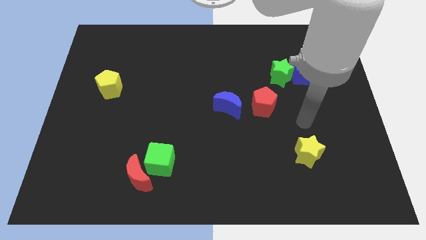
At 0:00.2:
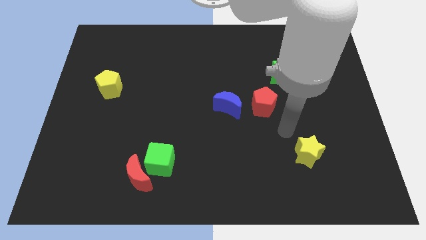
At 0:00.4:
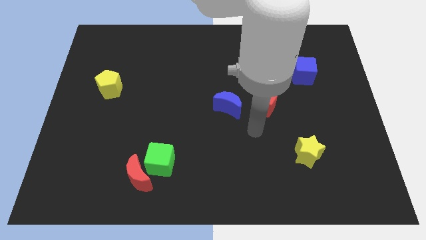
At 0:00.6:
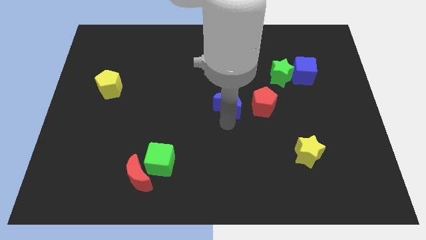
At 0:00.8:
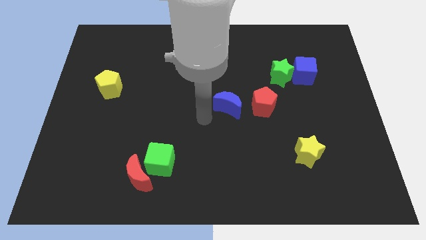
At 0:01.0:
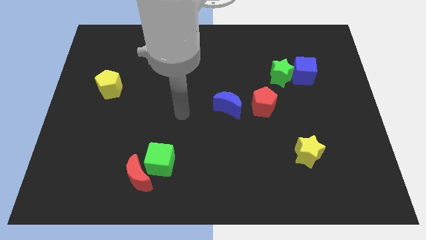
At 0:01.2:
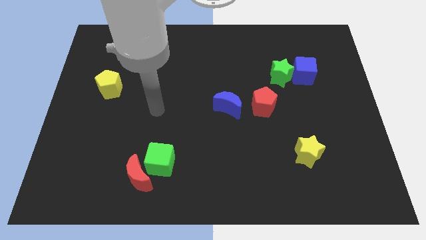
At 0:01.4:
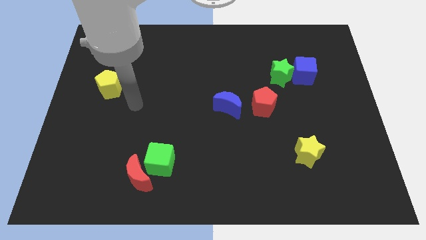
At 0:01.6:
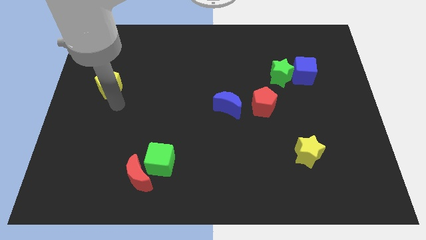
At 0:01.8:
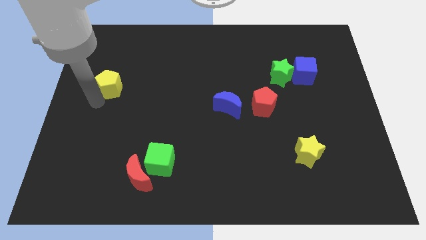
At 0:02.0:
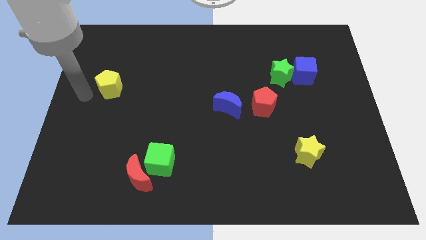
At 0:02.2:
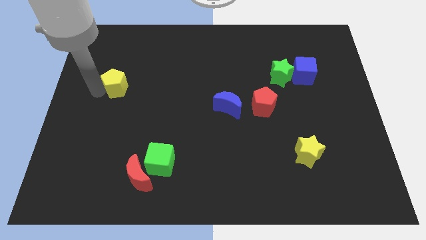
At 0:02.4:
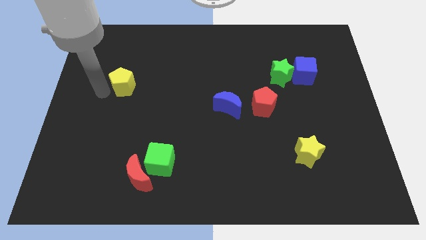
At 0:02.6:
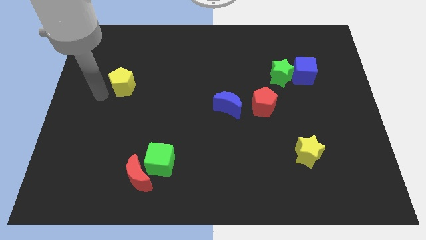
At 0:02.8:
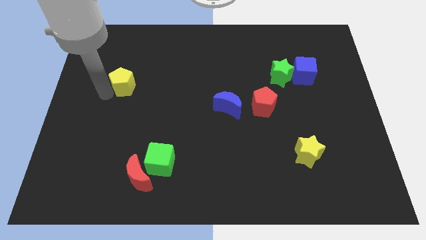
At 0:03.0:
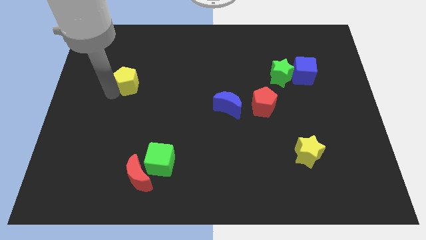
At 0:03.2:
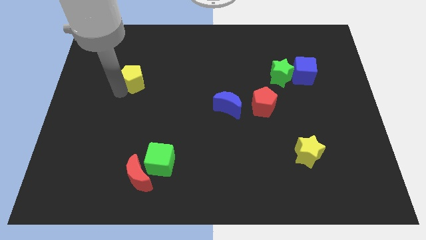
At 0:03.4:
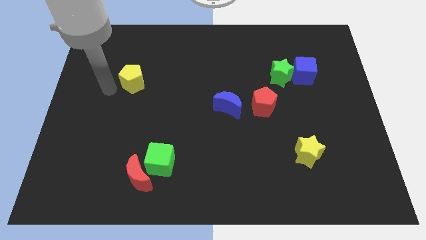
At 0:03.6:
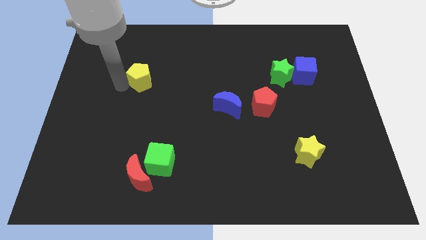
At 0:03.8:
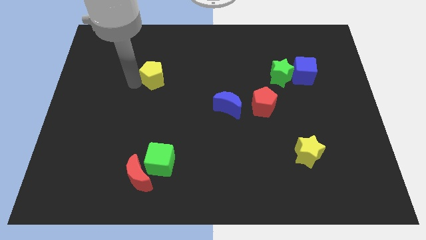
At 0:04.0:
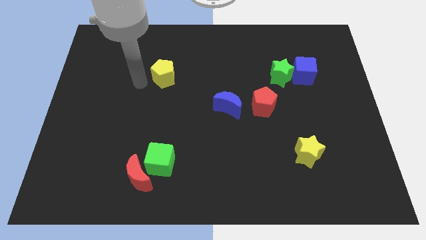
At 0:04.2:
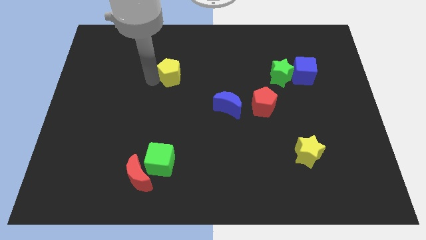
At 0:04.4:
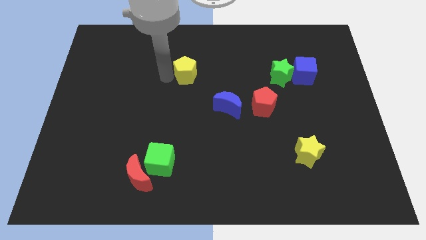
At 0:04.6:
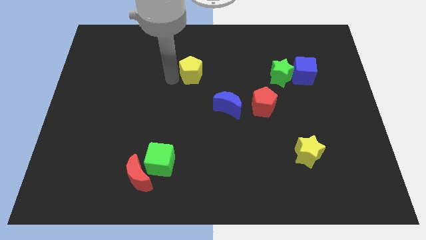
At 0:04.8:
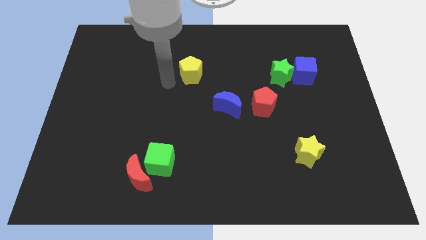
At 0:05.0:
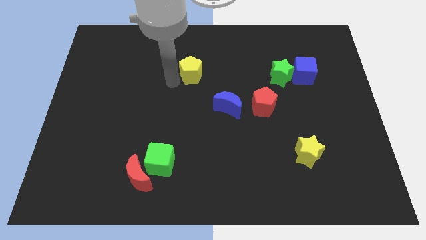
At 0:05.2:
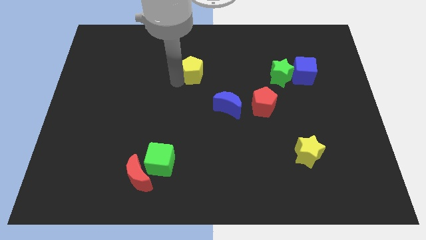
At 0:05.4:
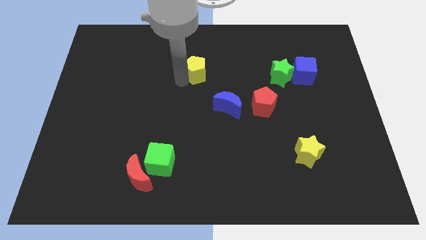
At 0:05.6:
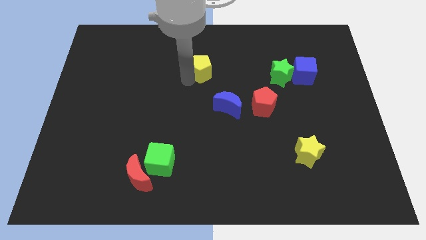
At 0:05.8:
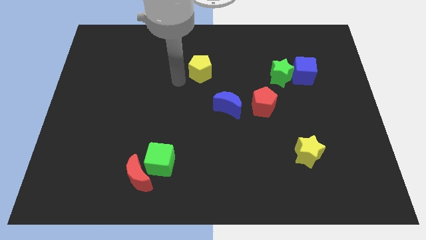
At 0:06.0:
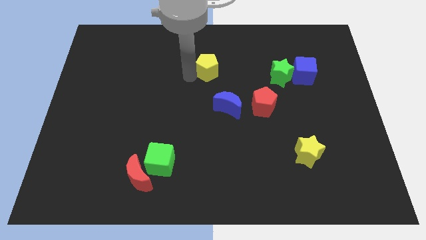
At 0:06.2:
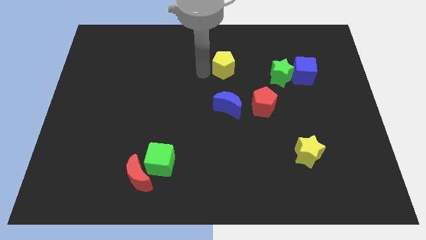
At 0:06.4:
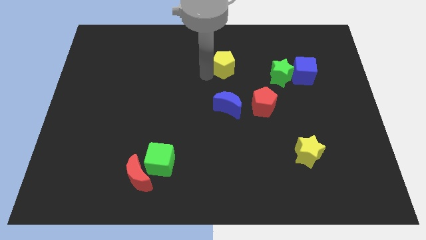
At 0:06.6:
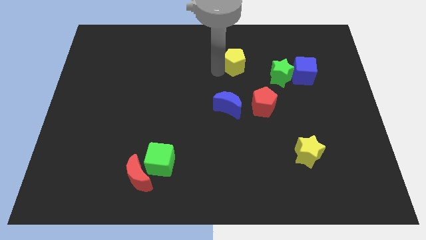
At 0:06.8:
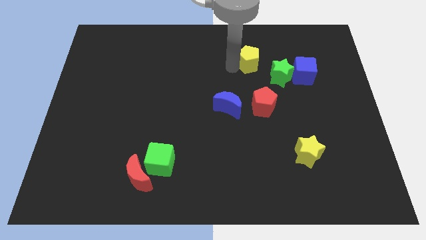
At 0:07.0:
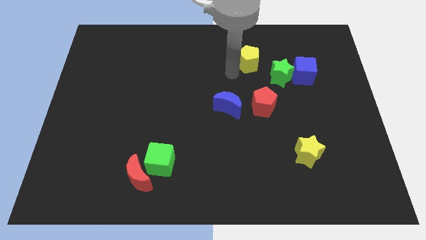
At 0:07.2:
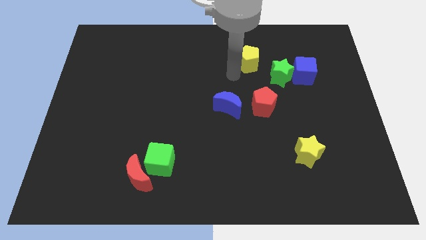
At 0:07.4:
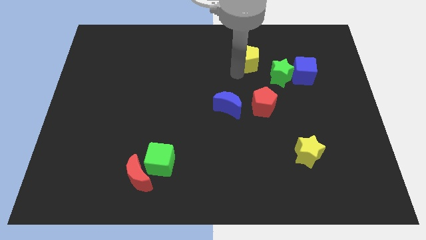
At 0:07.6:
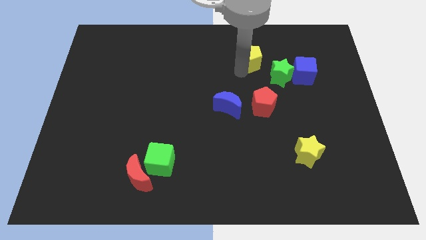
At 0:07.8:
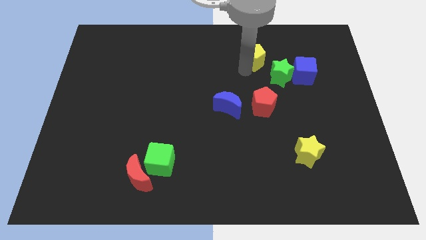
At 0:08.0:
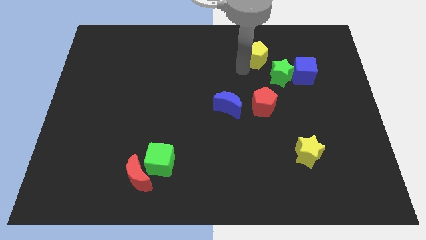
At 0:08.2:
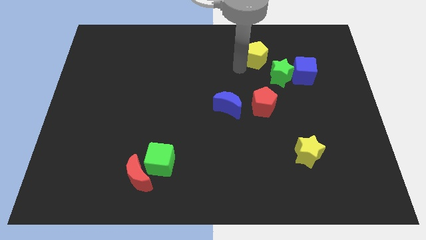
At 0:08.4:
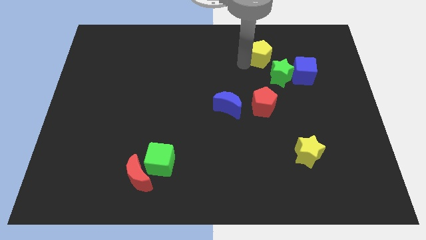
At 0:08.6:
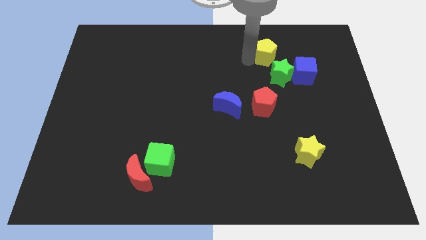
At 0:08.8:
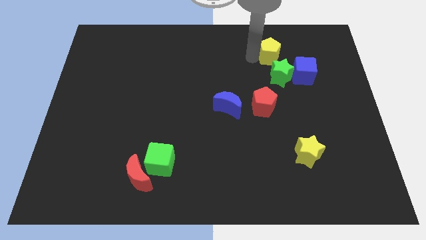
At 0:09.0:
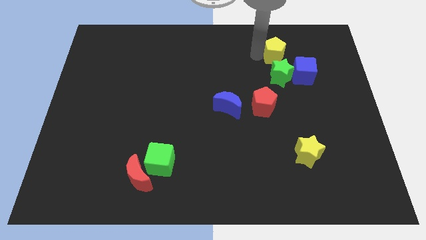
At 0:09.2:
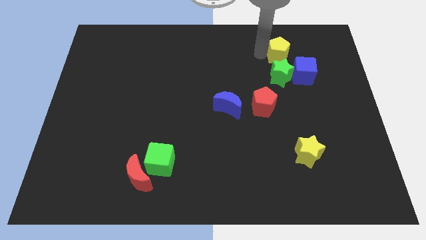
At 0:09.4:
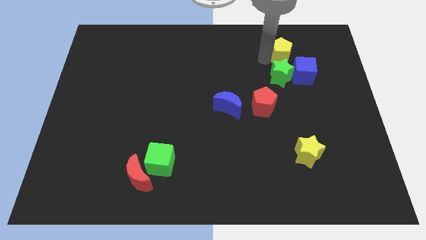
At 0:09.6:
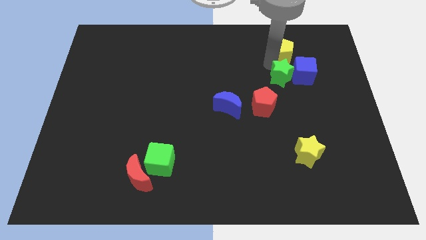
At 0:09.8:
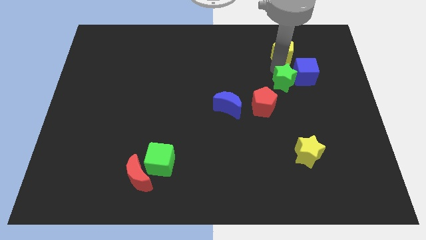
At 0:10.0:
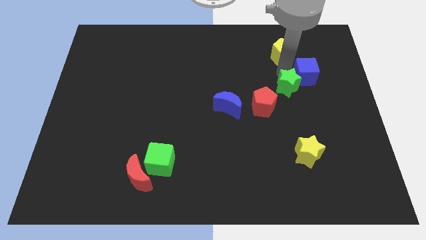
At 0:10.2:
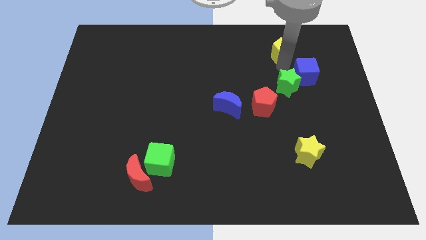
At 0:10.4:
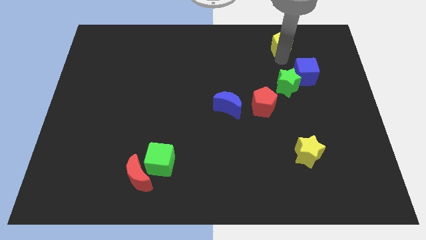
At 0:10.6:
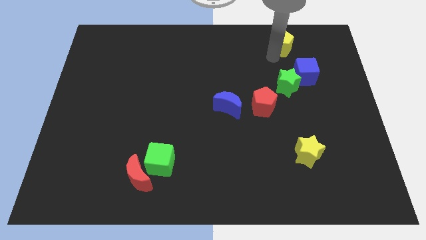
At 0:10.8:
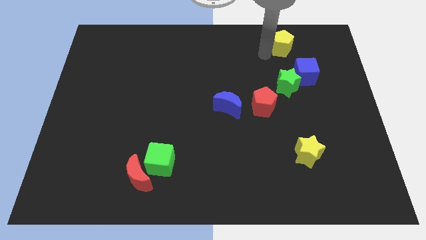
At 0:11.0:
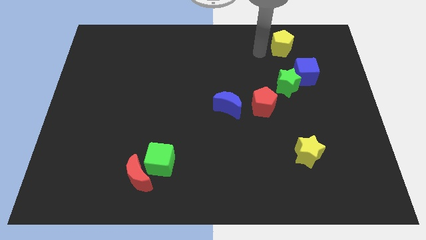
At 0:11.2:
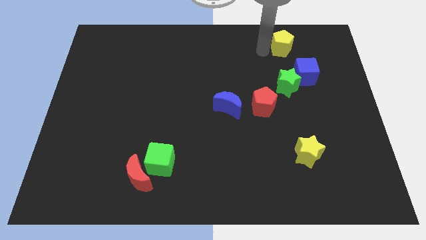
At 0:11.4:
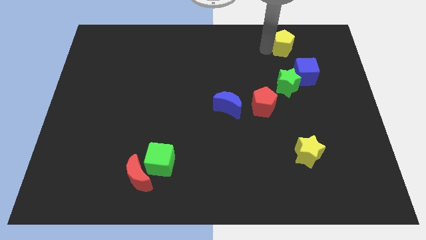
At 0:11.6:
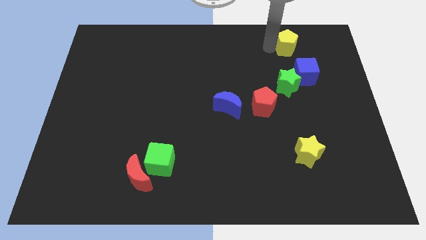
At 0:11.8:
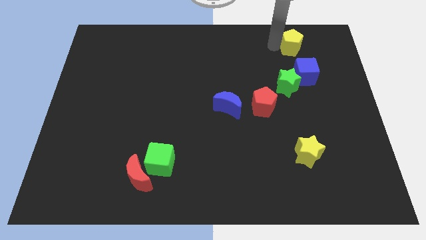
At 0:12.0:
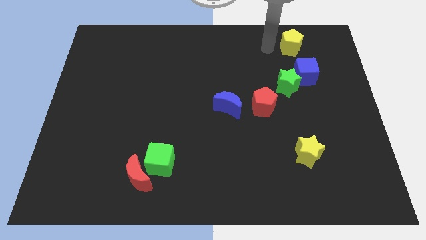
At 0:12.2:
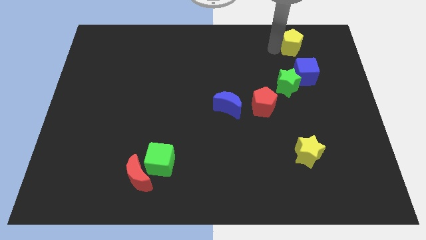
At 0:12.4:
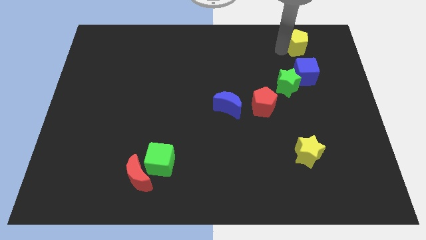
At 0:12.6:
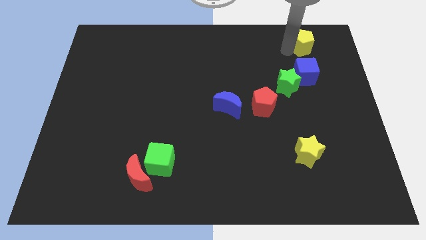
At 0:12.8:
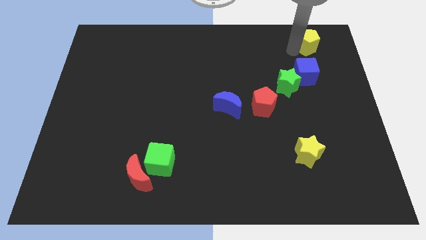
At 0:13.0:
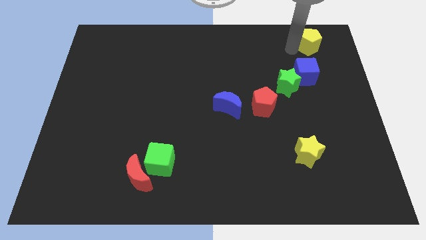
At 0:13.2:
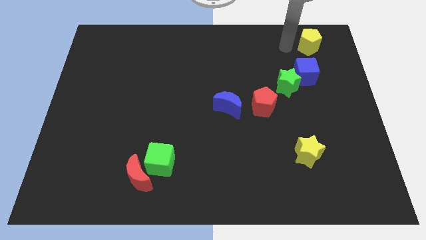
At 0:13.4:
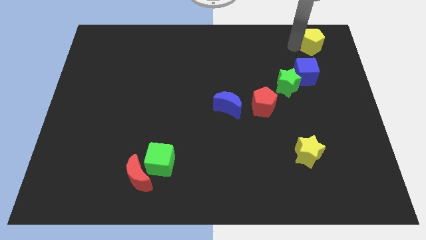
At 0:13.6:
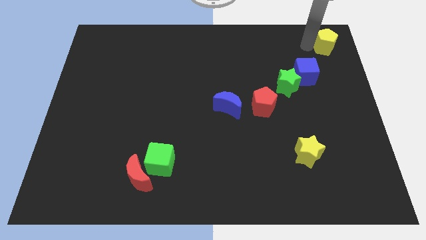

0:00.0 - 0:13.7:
put the yellow pentagon to the top right
